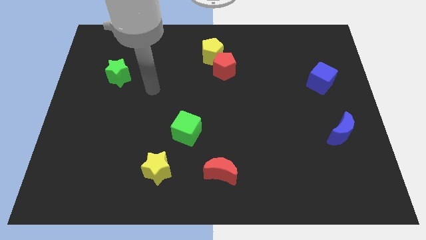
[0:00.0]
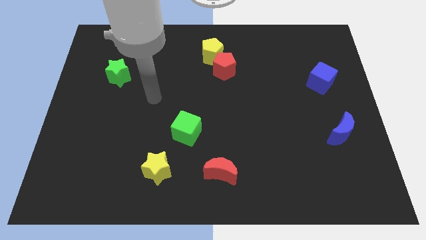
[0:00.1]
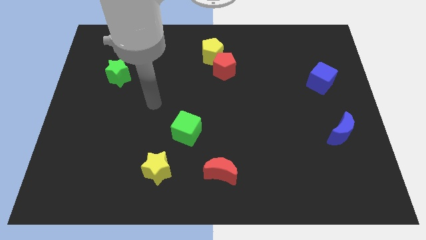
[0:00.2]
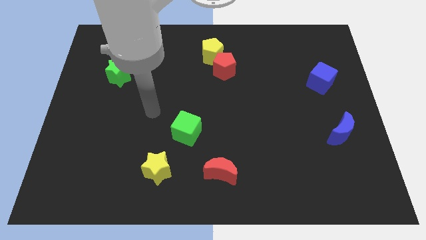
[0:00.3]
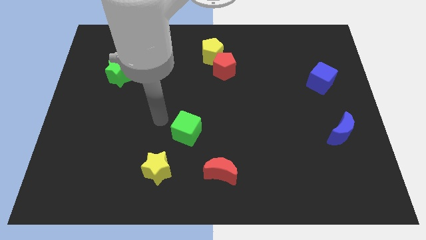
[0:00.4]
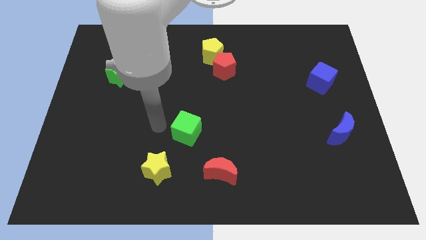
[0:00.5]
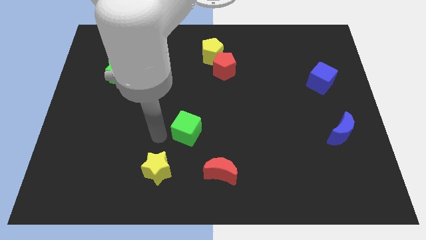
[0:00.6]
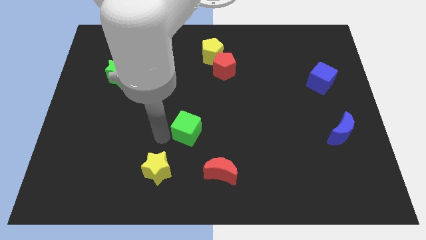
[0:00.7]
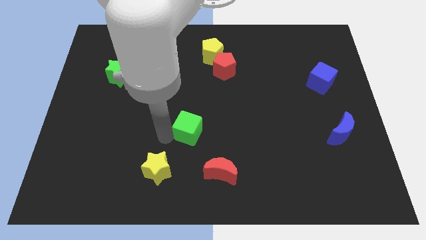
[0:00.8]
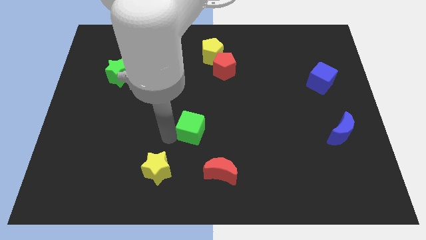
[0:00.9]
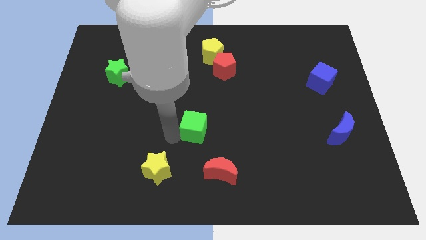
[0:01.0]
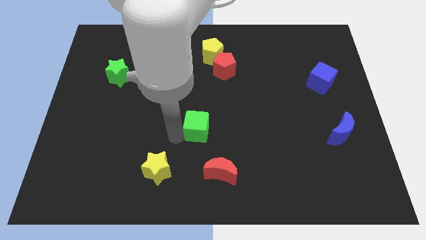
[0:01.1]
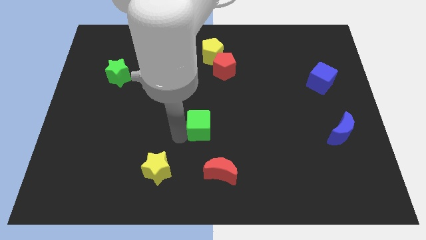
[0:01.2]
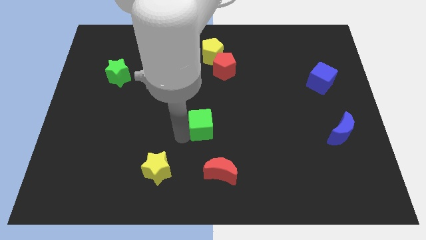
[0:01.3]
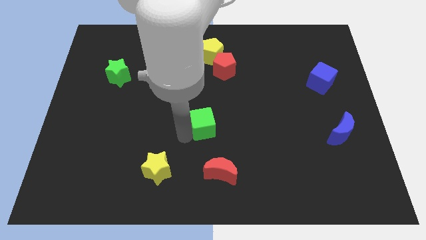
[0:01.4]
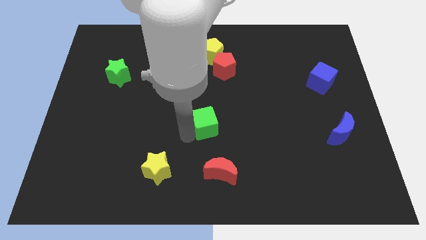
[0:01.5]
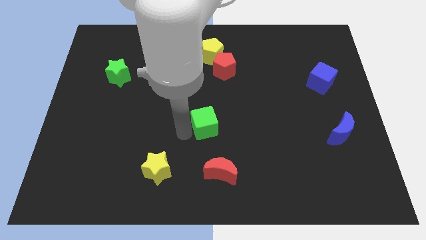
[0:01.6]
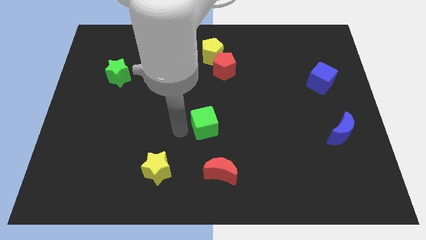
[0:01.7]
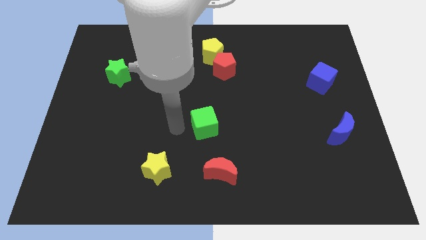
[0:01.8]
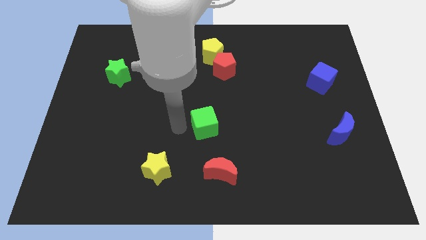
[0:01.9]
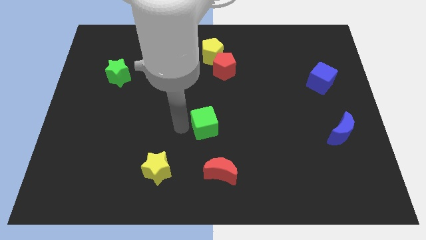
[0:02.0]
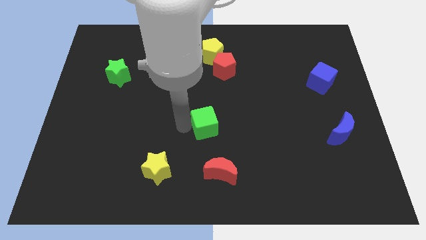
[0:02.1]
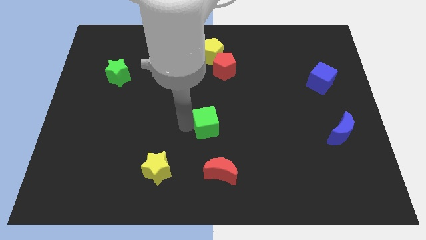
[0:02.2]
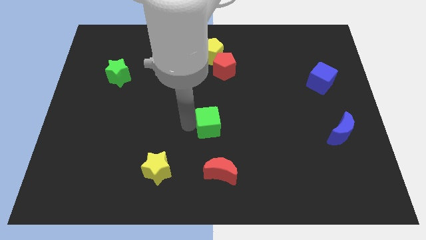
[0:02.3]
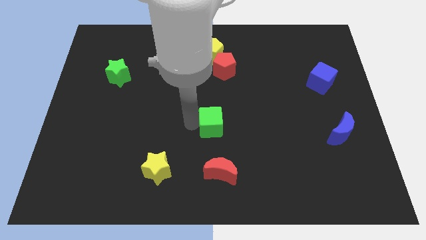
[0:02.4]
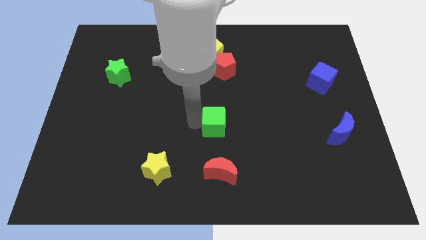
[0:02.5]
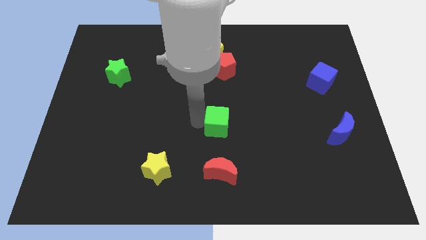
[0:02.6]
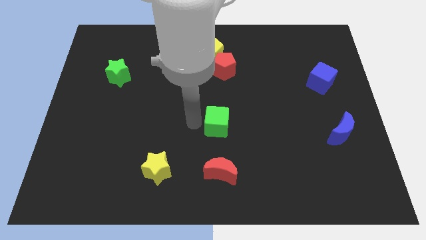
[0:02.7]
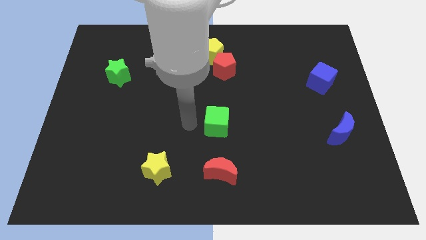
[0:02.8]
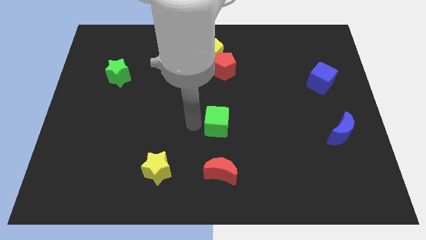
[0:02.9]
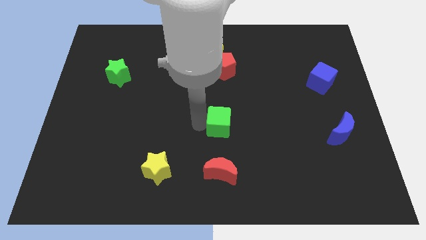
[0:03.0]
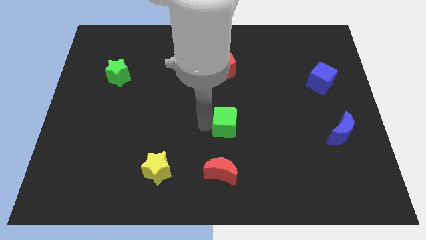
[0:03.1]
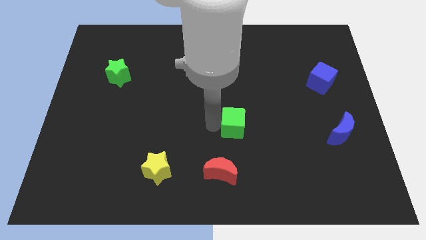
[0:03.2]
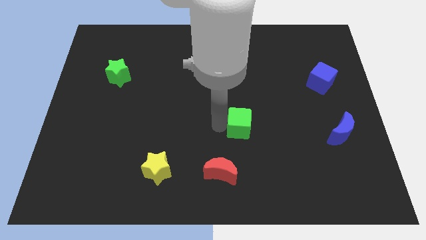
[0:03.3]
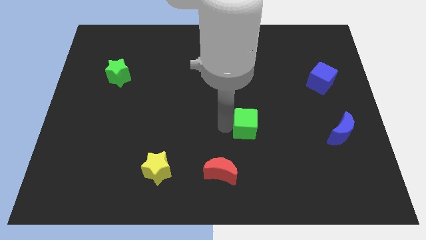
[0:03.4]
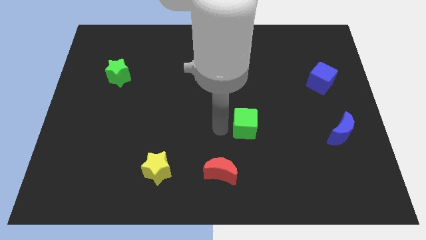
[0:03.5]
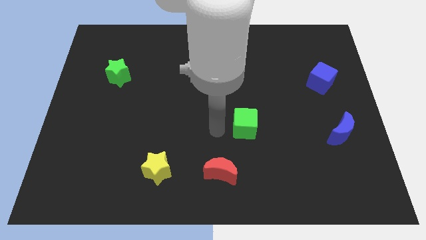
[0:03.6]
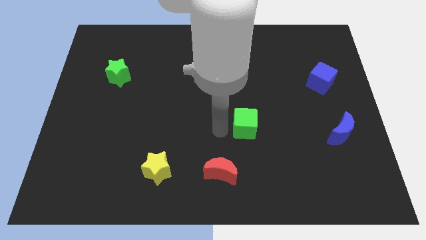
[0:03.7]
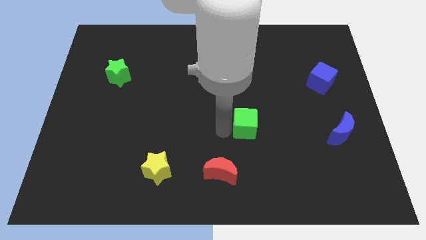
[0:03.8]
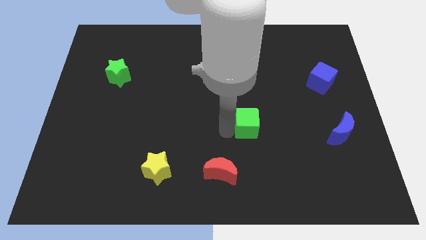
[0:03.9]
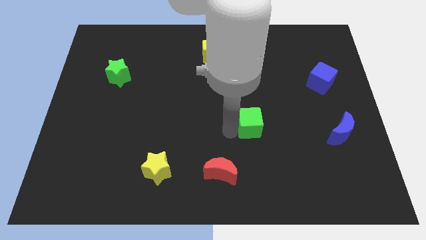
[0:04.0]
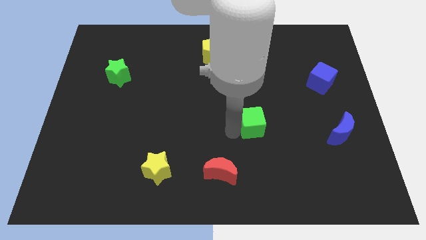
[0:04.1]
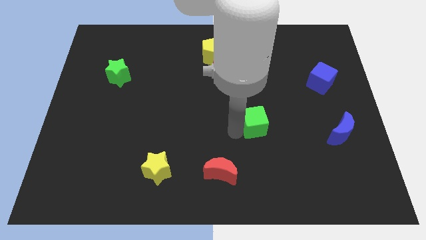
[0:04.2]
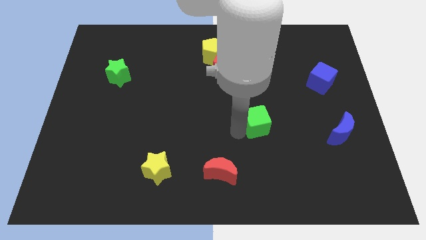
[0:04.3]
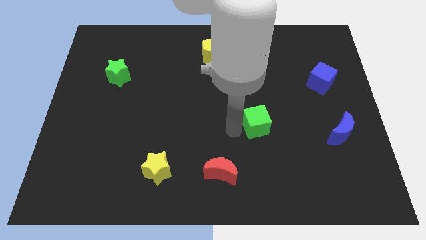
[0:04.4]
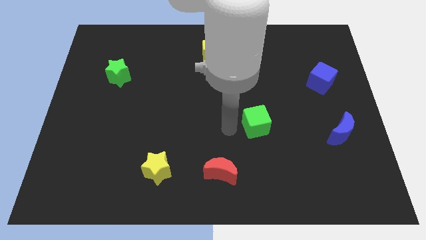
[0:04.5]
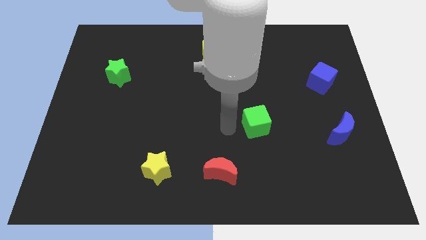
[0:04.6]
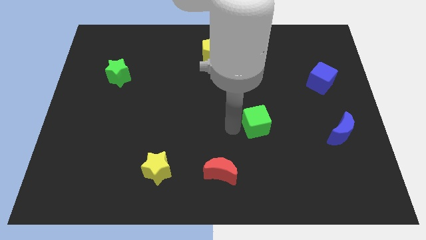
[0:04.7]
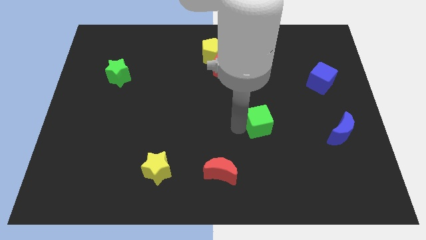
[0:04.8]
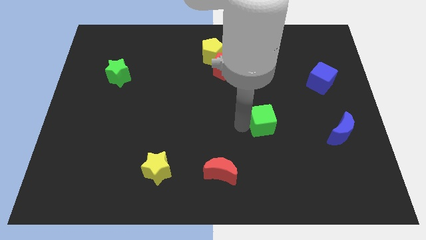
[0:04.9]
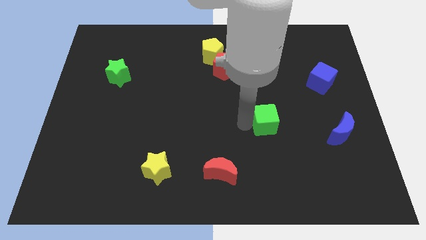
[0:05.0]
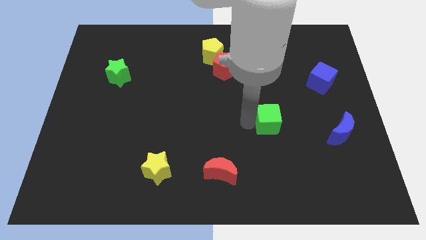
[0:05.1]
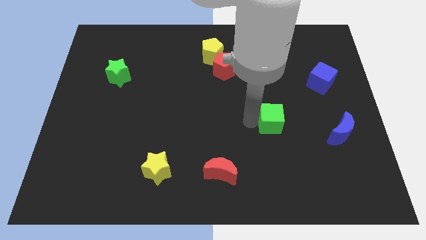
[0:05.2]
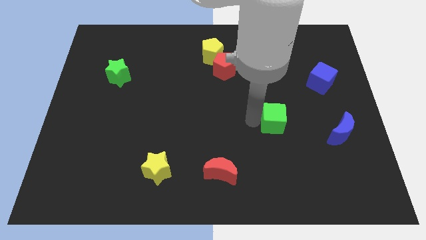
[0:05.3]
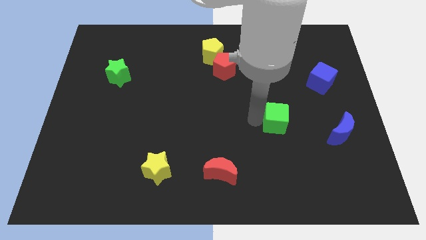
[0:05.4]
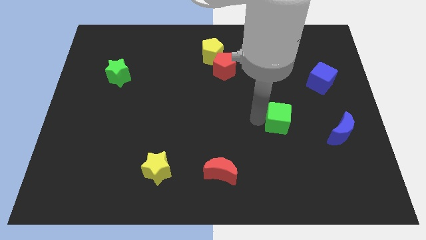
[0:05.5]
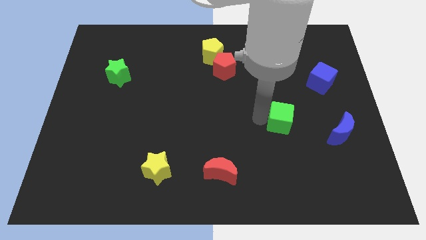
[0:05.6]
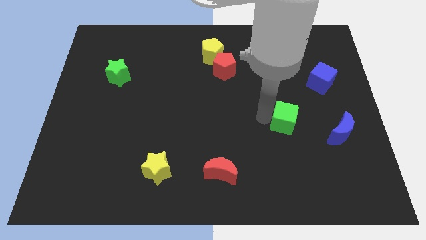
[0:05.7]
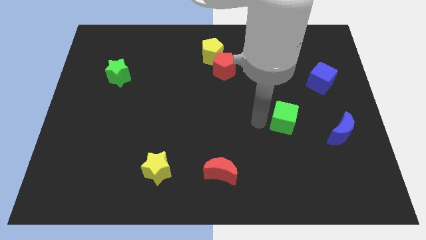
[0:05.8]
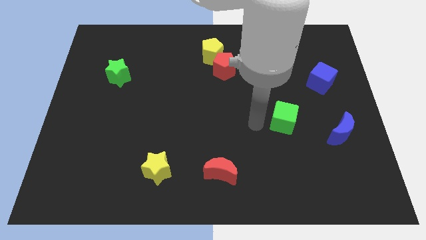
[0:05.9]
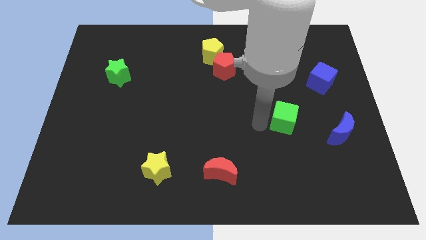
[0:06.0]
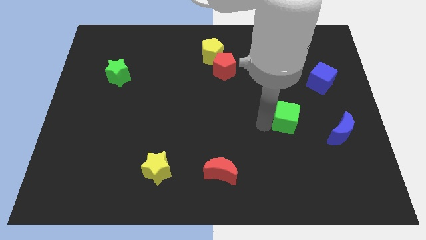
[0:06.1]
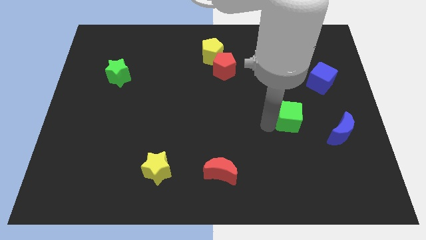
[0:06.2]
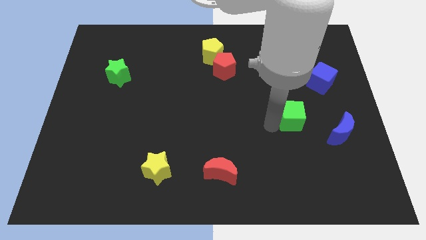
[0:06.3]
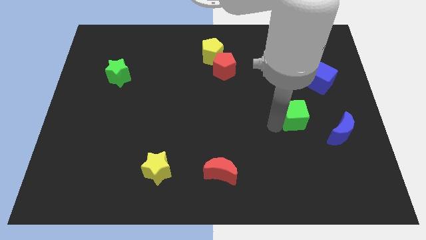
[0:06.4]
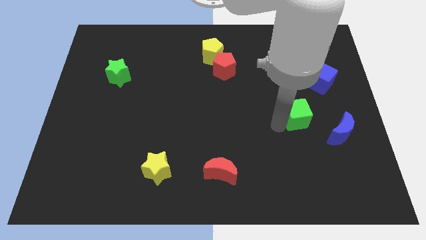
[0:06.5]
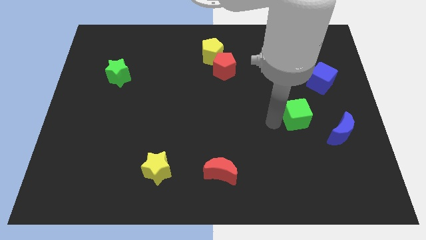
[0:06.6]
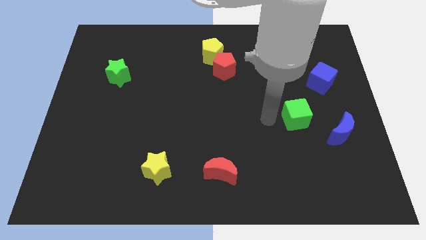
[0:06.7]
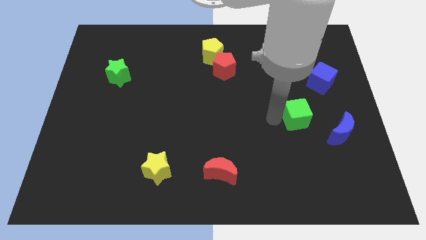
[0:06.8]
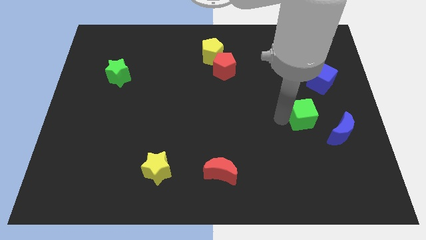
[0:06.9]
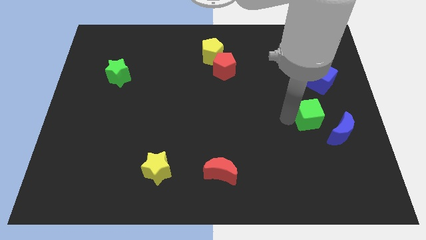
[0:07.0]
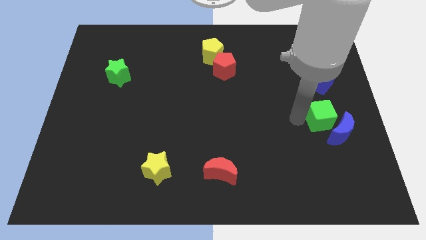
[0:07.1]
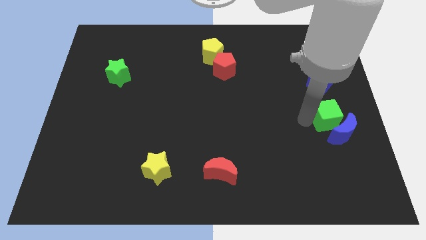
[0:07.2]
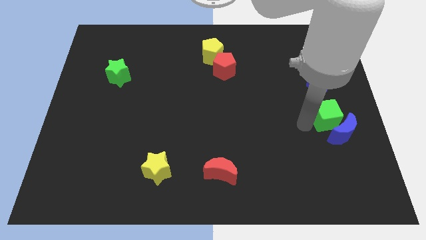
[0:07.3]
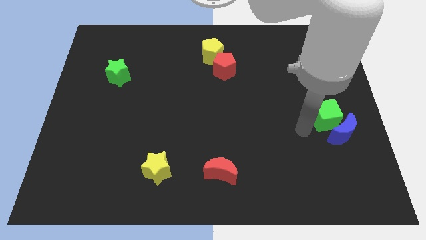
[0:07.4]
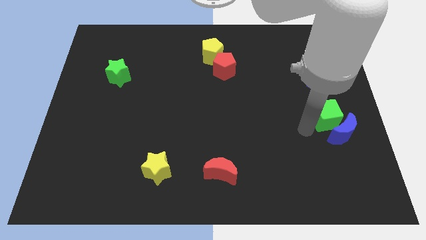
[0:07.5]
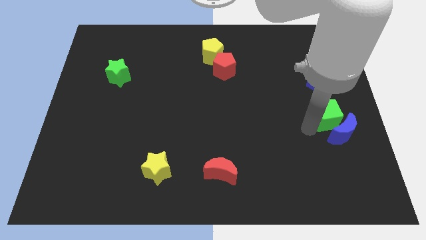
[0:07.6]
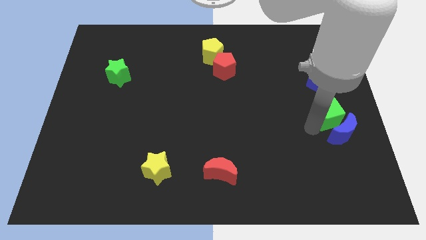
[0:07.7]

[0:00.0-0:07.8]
slide the green cube to the center right
